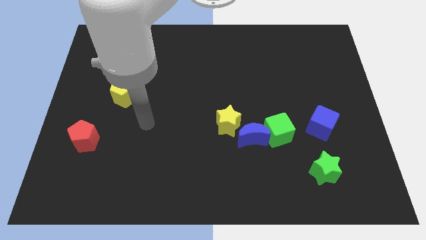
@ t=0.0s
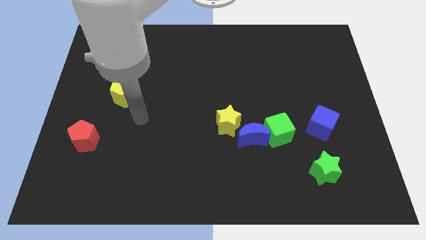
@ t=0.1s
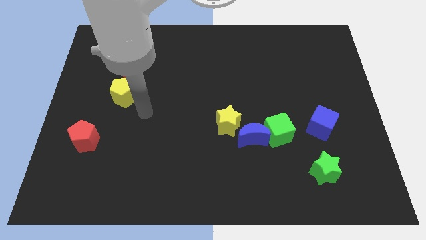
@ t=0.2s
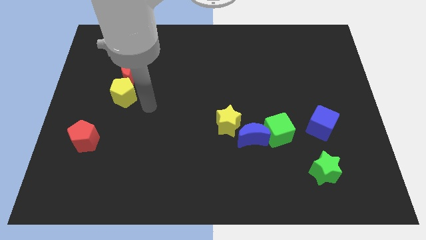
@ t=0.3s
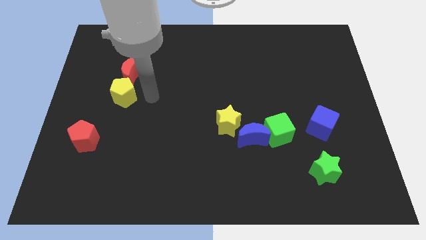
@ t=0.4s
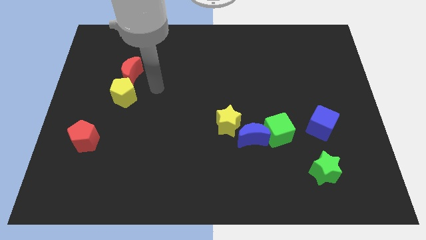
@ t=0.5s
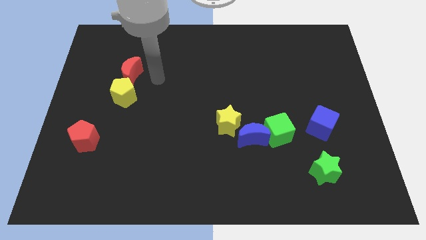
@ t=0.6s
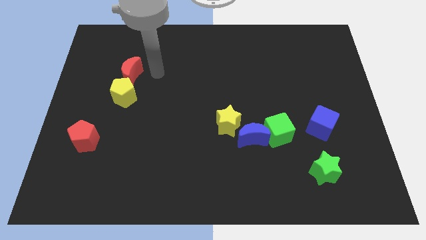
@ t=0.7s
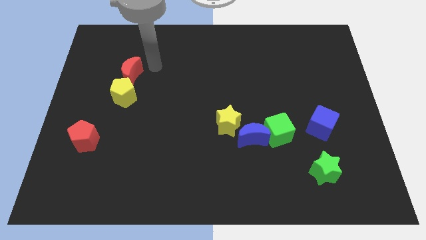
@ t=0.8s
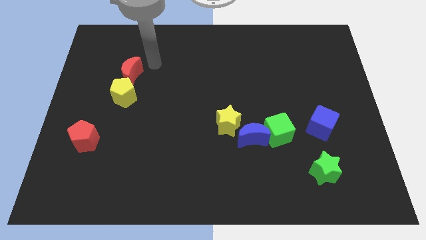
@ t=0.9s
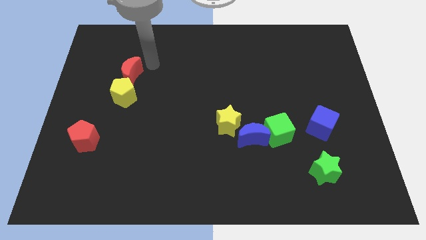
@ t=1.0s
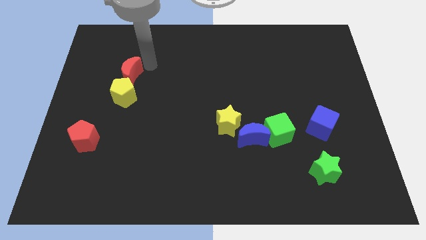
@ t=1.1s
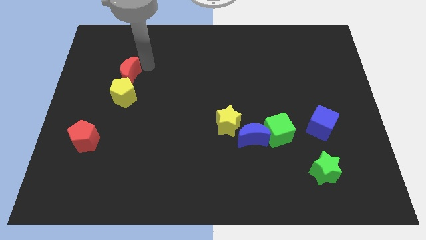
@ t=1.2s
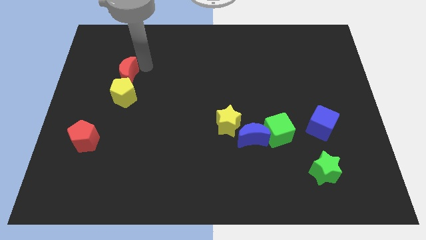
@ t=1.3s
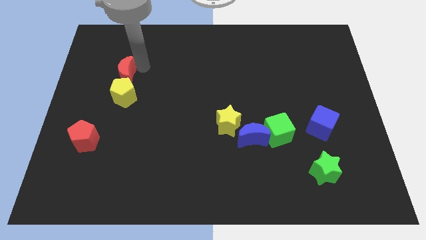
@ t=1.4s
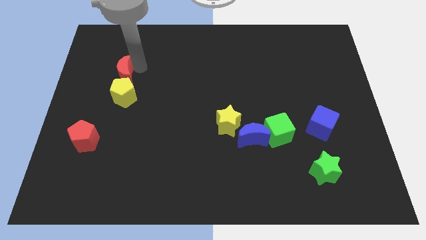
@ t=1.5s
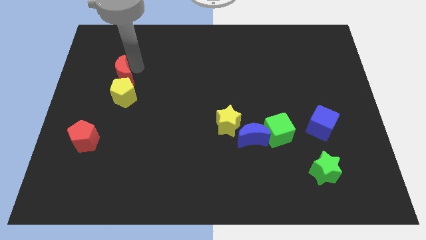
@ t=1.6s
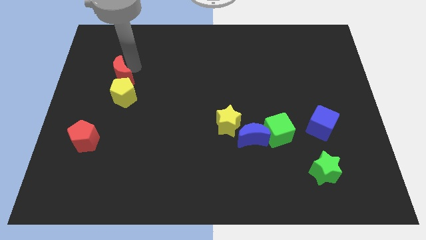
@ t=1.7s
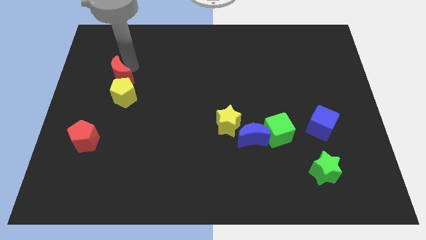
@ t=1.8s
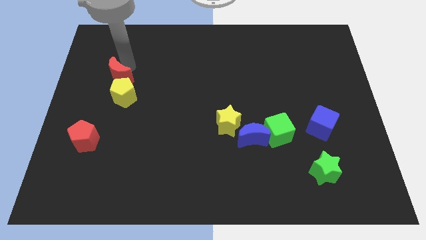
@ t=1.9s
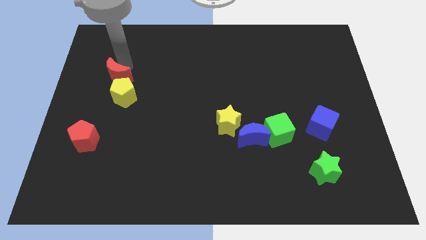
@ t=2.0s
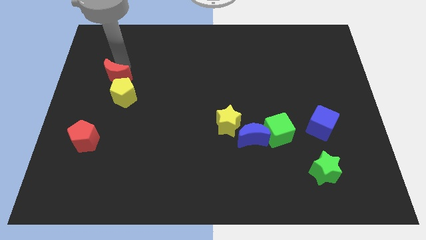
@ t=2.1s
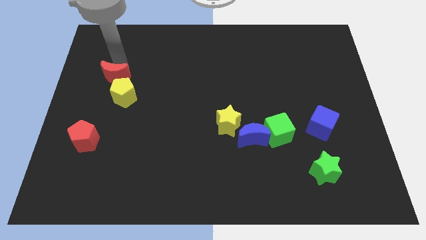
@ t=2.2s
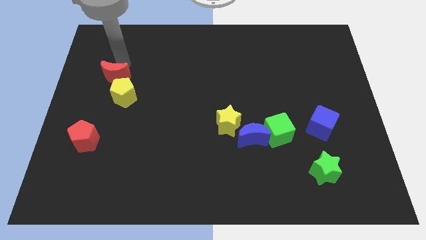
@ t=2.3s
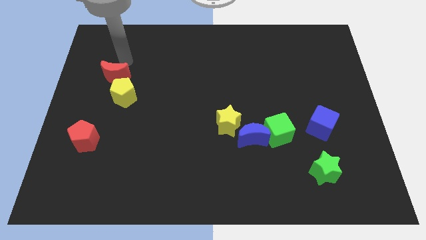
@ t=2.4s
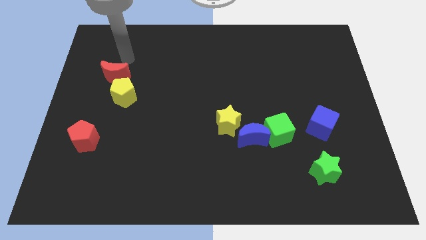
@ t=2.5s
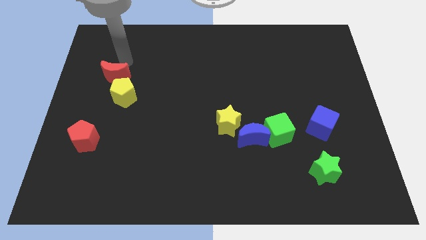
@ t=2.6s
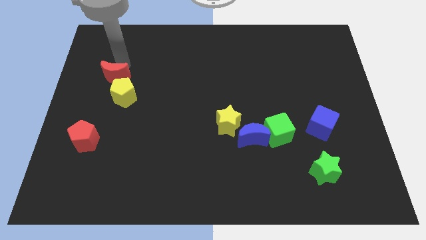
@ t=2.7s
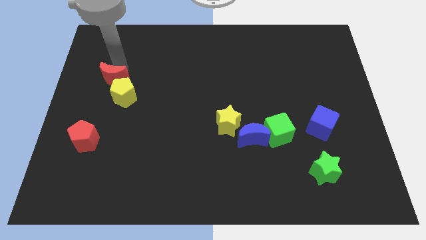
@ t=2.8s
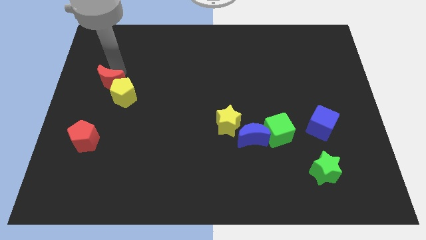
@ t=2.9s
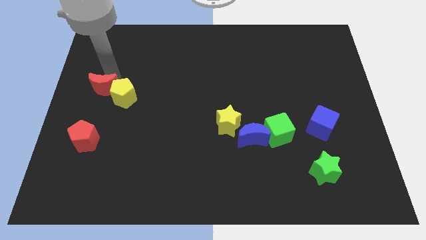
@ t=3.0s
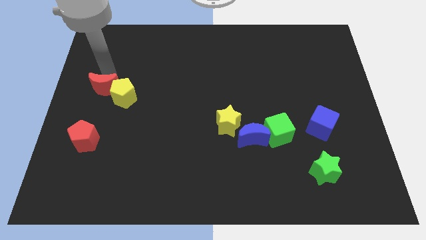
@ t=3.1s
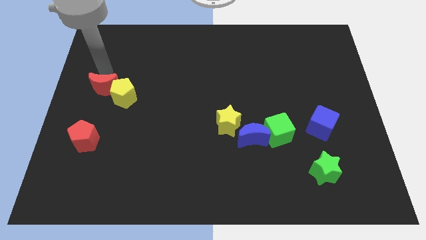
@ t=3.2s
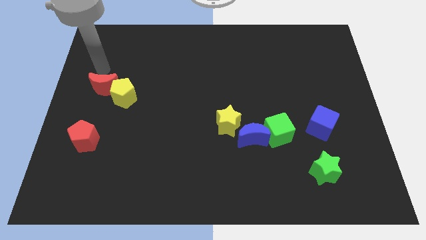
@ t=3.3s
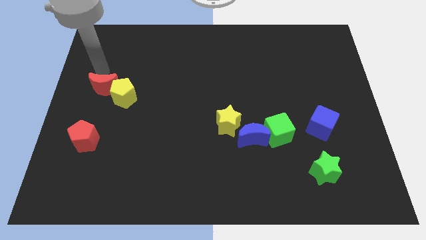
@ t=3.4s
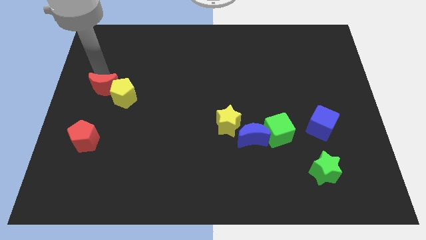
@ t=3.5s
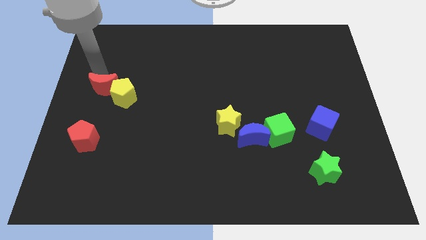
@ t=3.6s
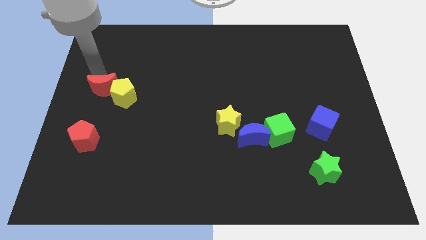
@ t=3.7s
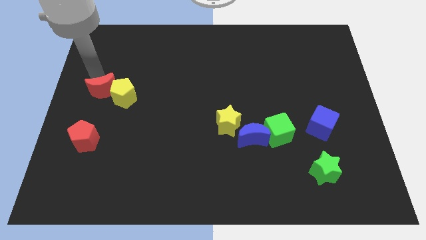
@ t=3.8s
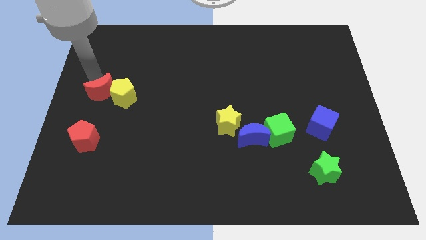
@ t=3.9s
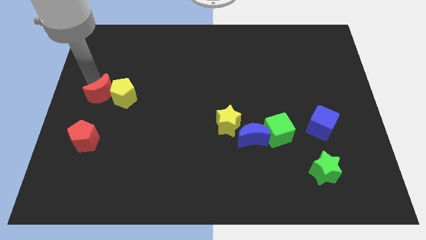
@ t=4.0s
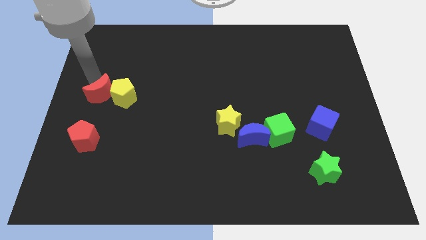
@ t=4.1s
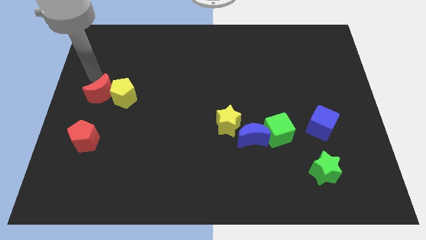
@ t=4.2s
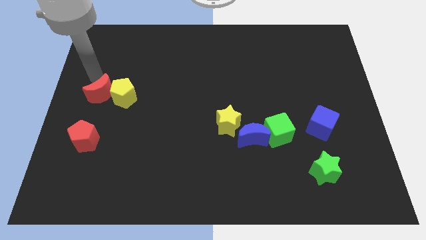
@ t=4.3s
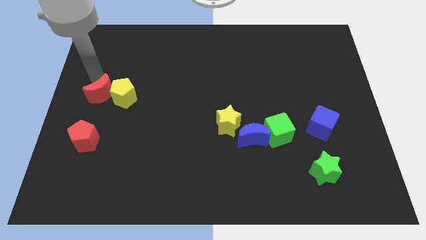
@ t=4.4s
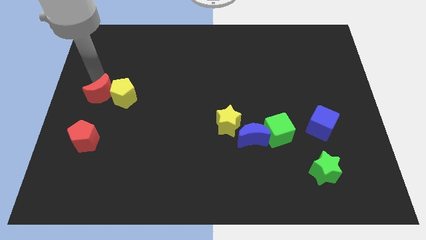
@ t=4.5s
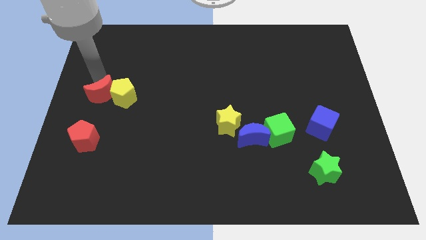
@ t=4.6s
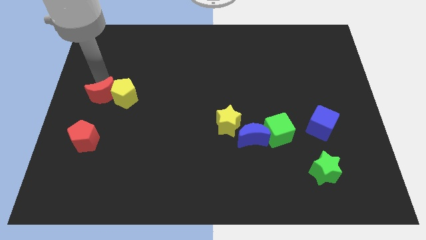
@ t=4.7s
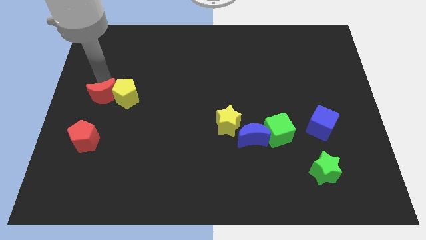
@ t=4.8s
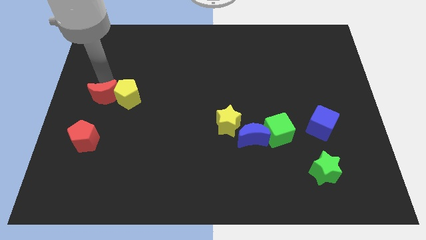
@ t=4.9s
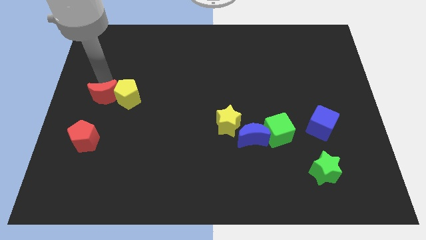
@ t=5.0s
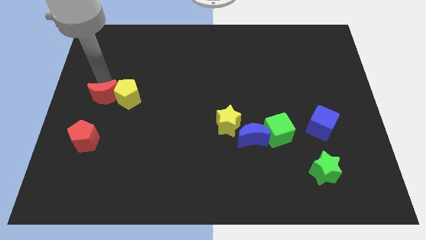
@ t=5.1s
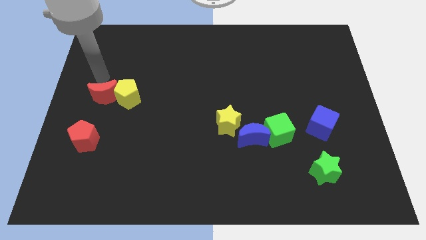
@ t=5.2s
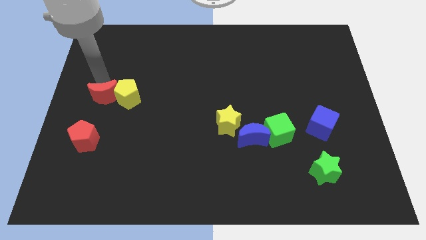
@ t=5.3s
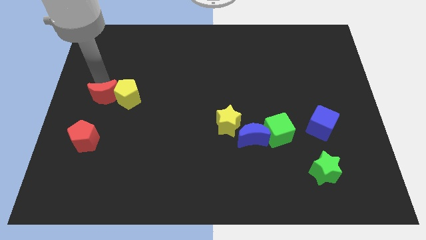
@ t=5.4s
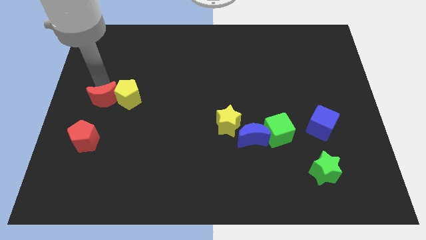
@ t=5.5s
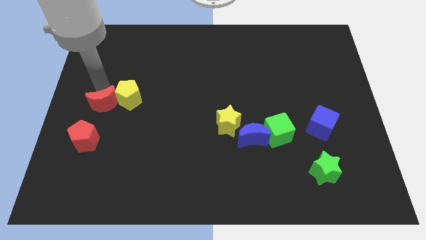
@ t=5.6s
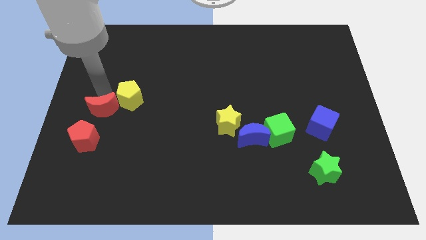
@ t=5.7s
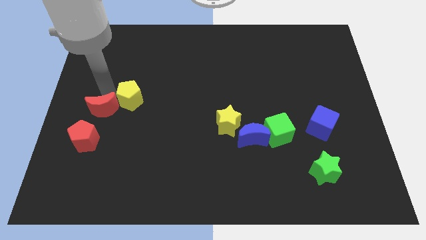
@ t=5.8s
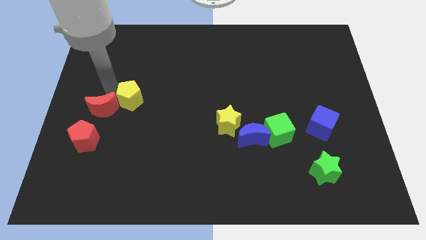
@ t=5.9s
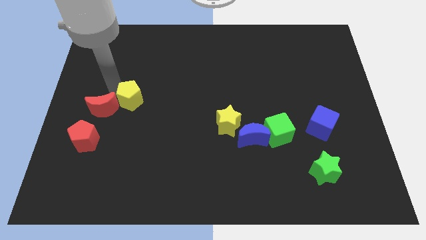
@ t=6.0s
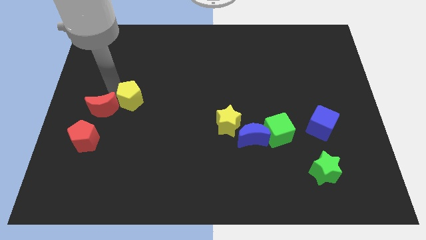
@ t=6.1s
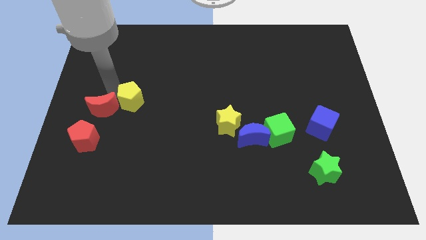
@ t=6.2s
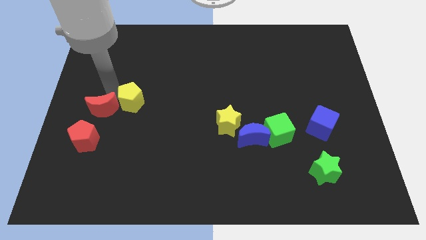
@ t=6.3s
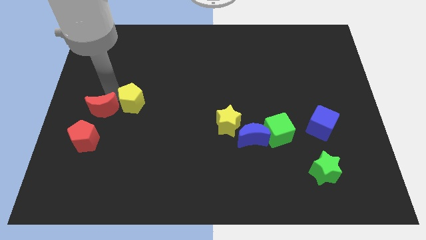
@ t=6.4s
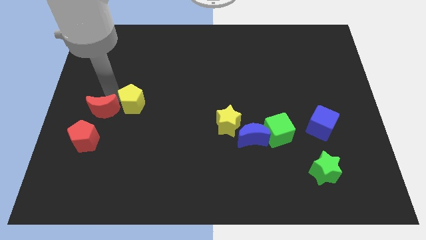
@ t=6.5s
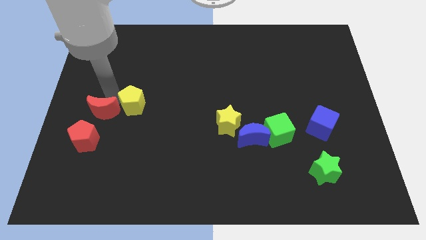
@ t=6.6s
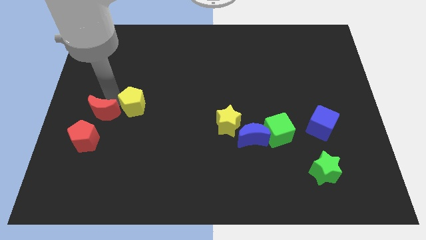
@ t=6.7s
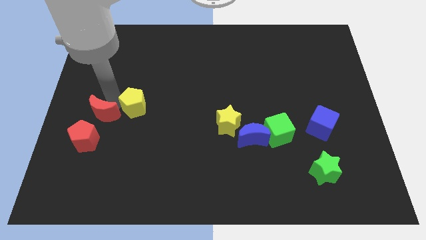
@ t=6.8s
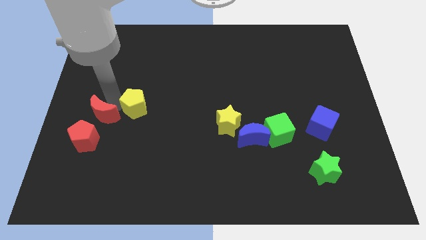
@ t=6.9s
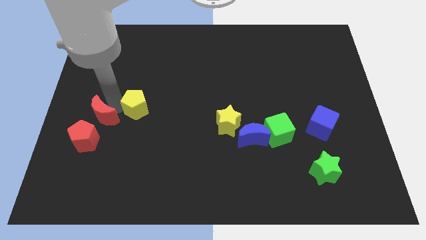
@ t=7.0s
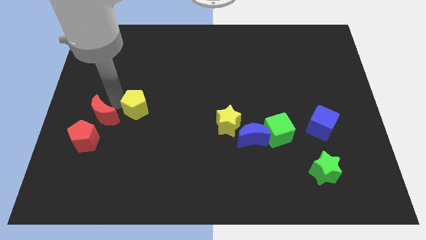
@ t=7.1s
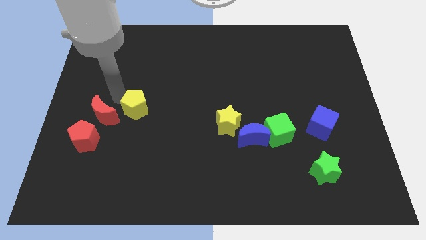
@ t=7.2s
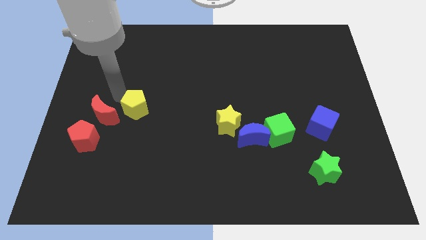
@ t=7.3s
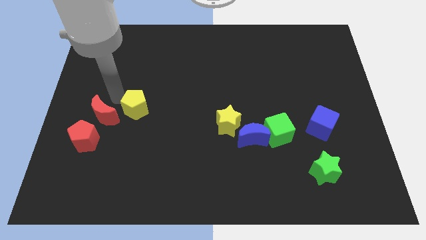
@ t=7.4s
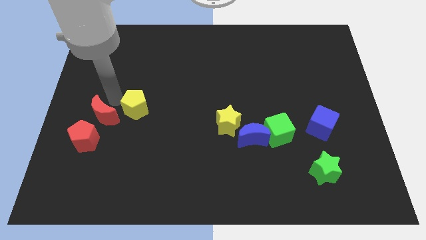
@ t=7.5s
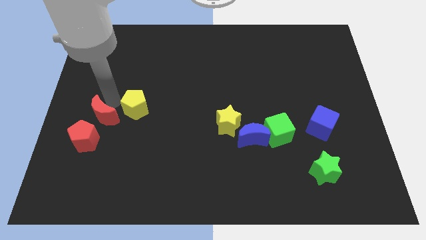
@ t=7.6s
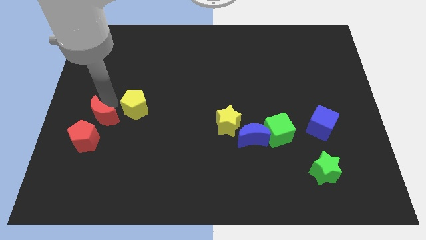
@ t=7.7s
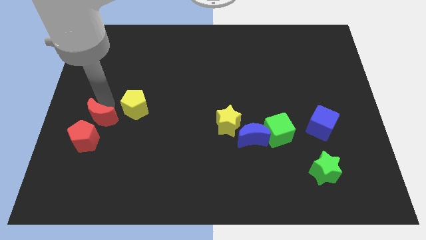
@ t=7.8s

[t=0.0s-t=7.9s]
push the red moon to the red pentagon
